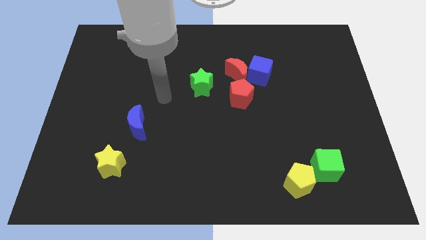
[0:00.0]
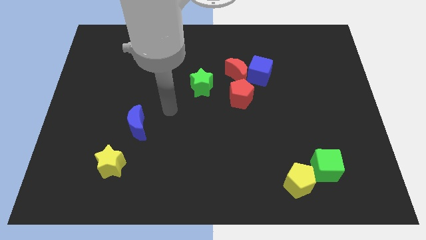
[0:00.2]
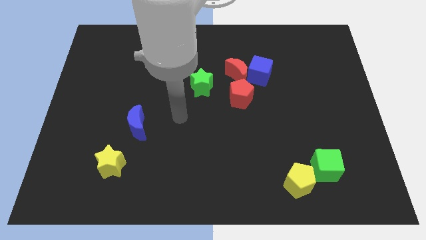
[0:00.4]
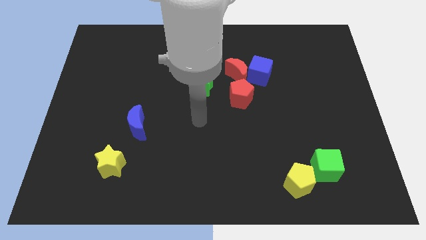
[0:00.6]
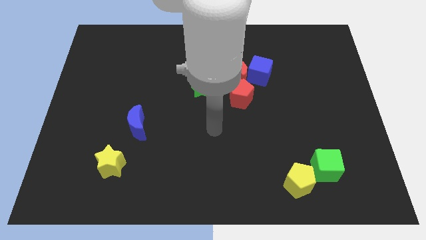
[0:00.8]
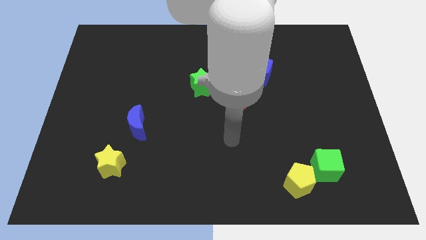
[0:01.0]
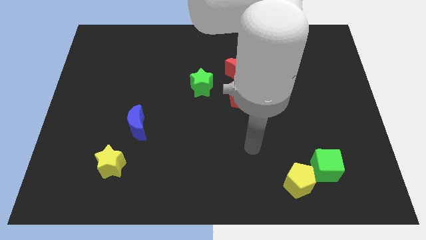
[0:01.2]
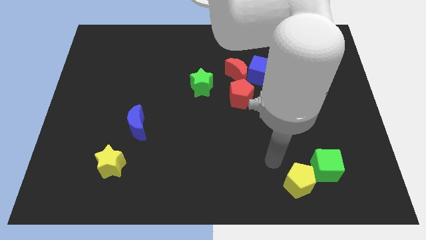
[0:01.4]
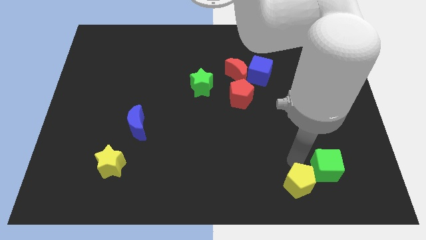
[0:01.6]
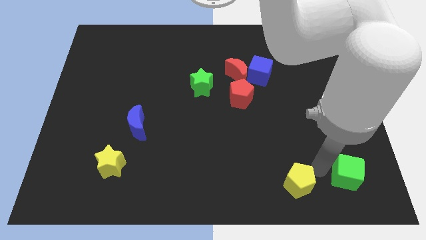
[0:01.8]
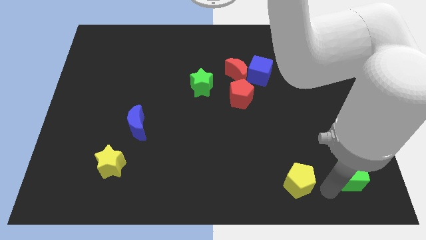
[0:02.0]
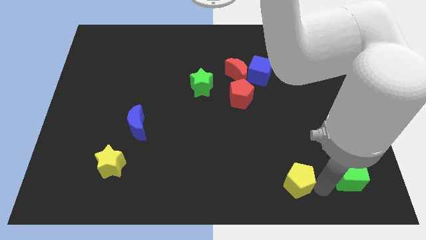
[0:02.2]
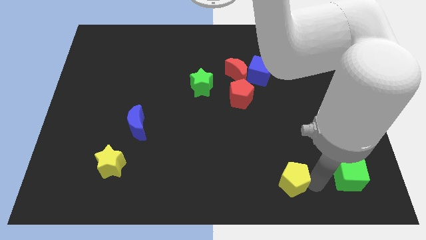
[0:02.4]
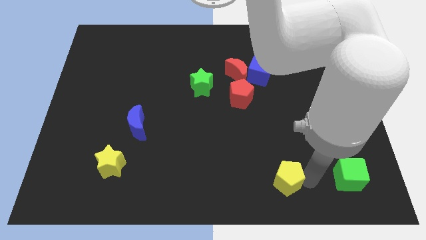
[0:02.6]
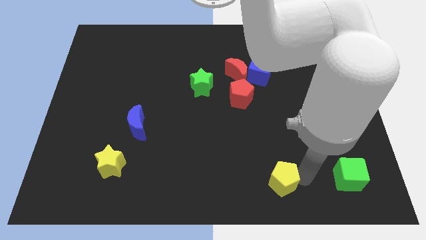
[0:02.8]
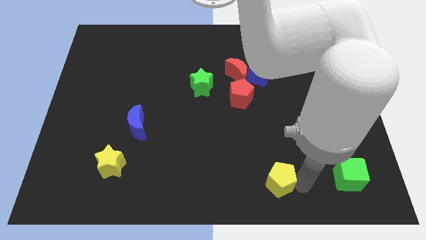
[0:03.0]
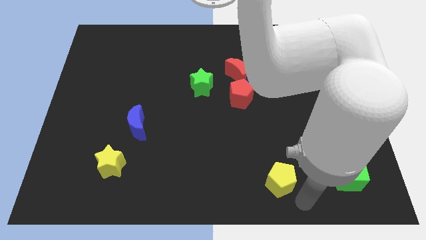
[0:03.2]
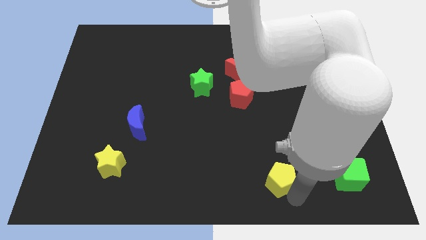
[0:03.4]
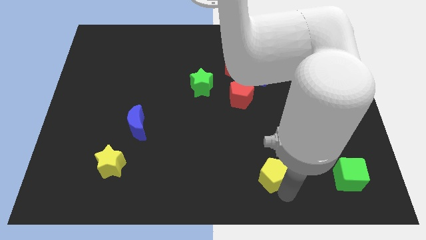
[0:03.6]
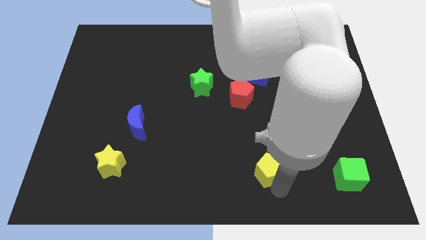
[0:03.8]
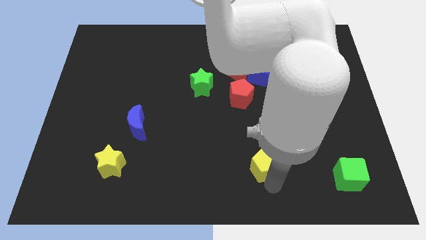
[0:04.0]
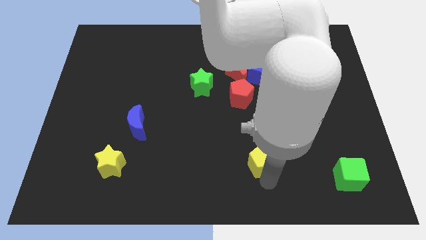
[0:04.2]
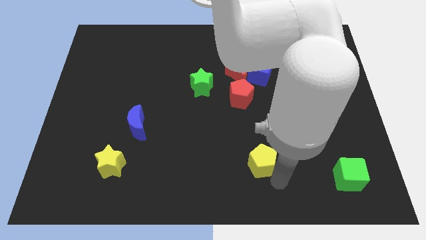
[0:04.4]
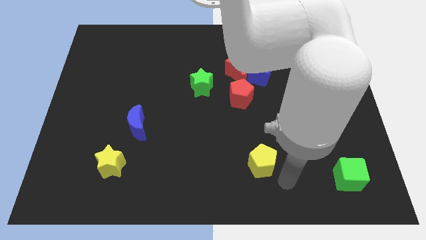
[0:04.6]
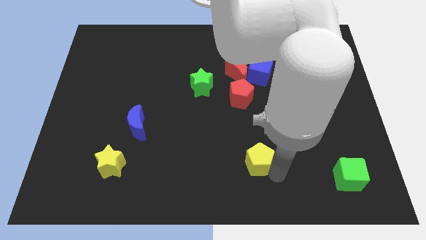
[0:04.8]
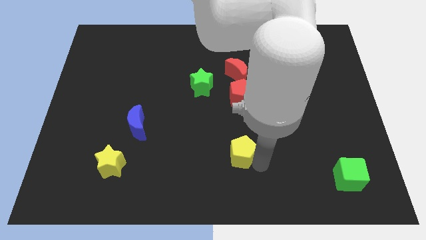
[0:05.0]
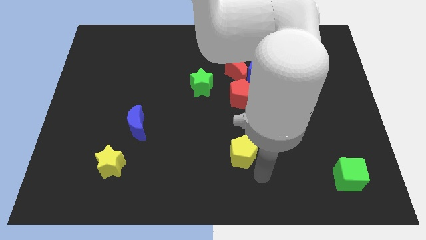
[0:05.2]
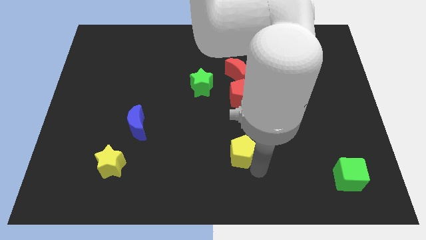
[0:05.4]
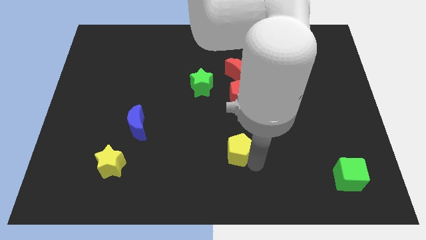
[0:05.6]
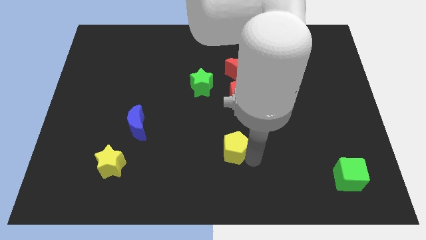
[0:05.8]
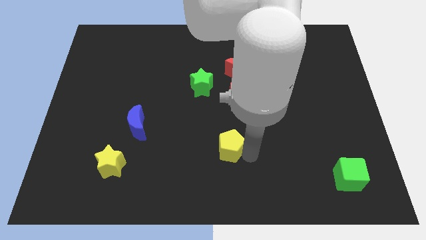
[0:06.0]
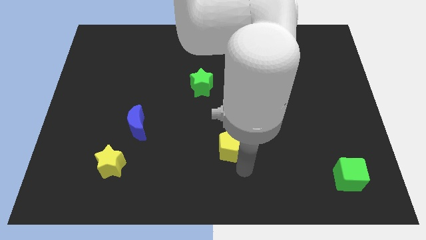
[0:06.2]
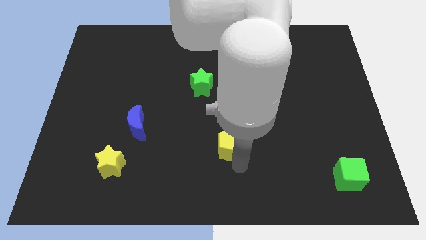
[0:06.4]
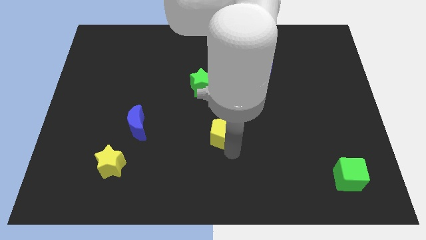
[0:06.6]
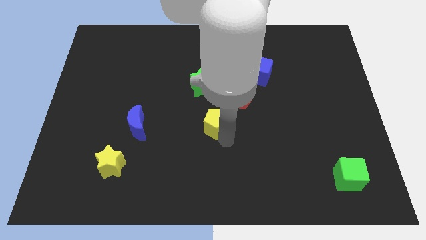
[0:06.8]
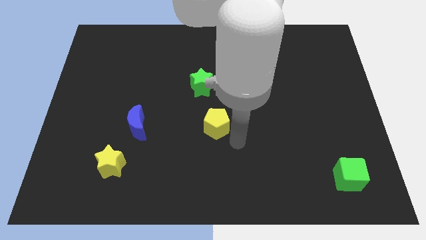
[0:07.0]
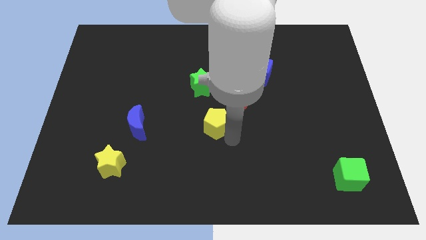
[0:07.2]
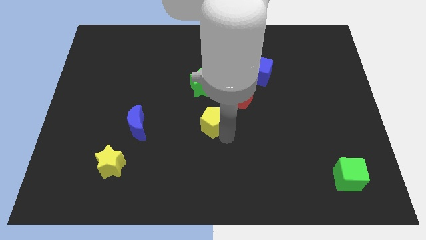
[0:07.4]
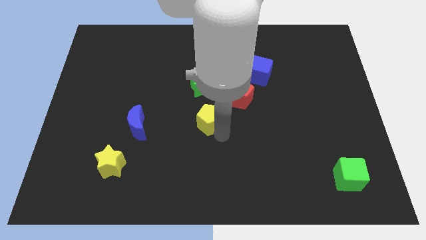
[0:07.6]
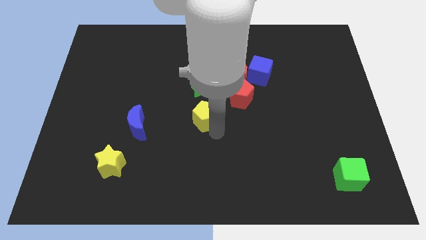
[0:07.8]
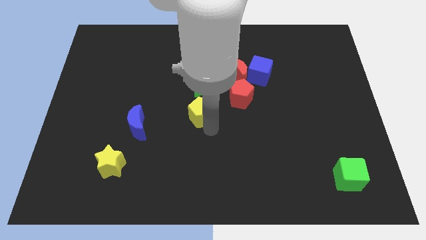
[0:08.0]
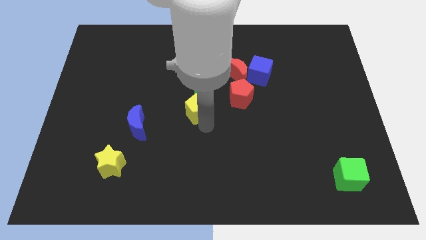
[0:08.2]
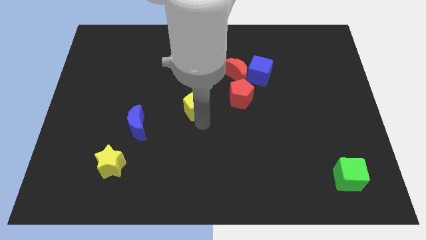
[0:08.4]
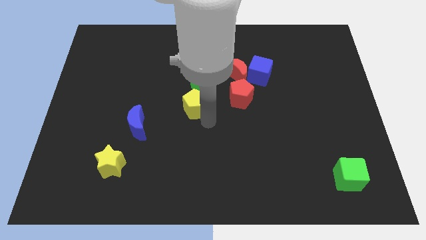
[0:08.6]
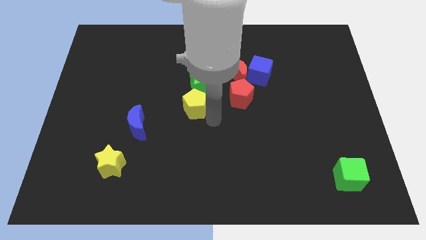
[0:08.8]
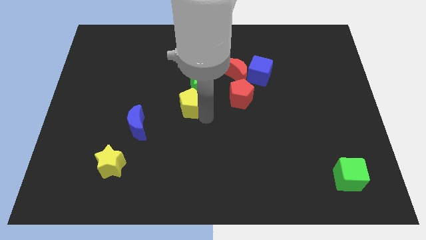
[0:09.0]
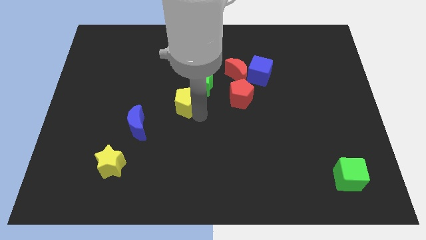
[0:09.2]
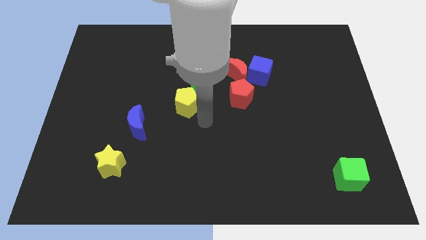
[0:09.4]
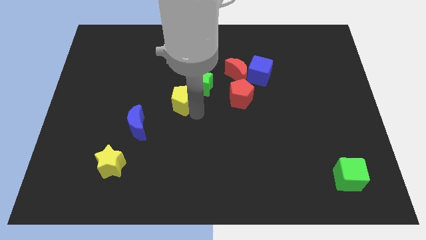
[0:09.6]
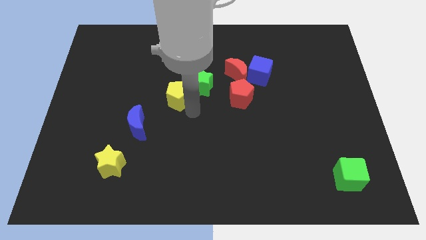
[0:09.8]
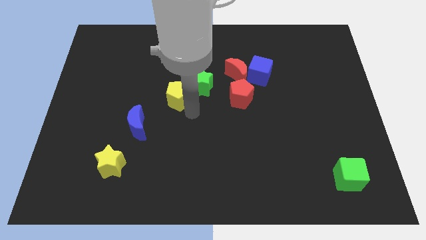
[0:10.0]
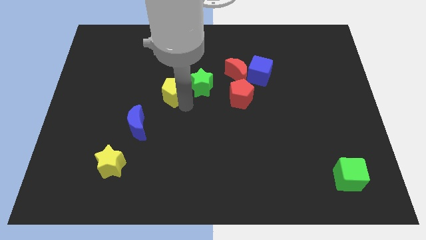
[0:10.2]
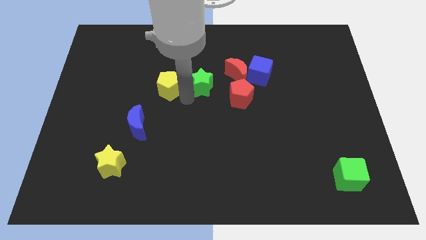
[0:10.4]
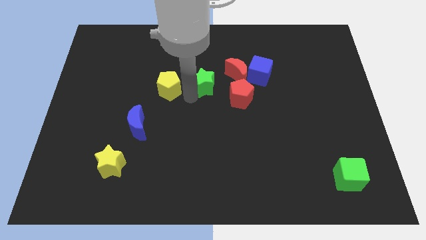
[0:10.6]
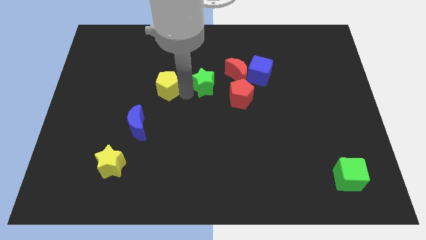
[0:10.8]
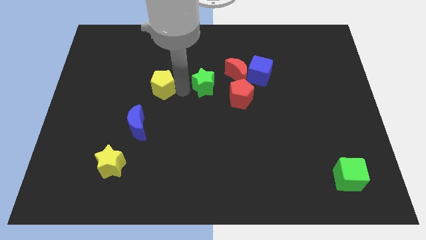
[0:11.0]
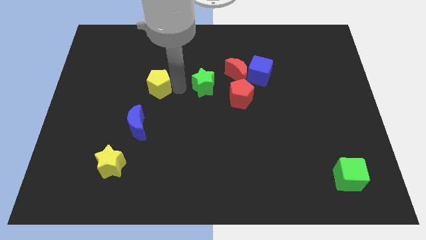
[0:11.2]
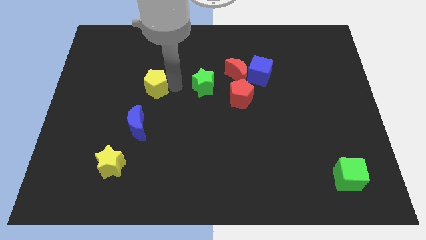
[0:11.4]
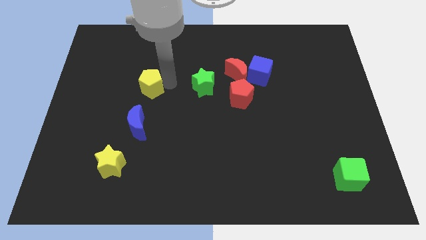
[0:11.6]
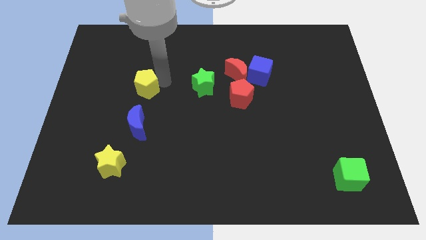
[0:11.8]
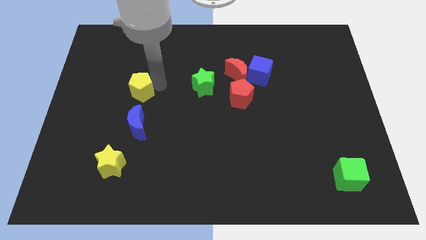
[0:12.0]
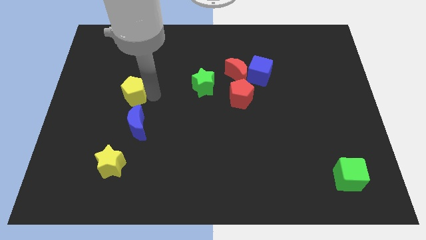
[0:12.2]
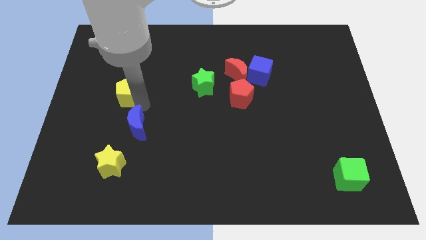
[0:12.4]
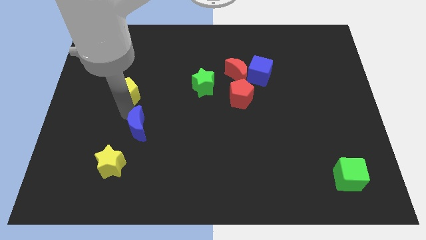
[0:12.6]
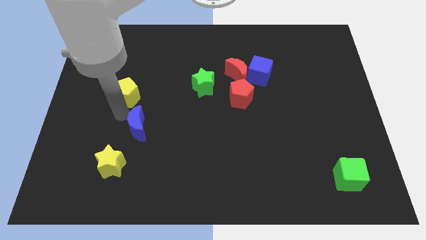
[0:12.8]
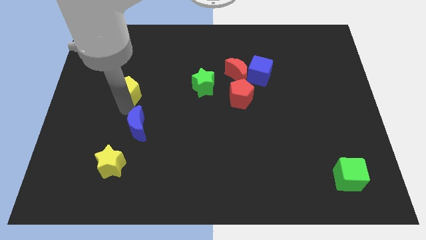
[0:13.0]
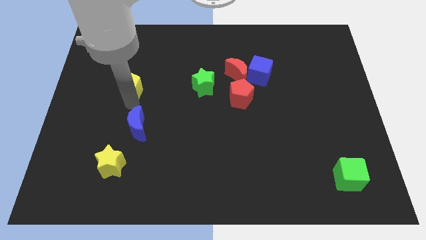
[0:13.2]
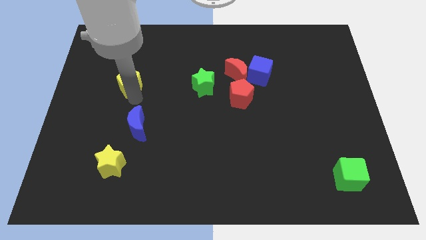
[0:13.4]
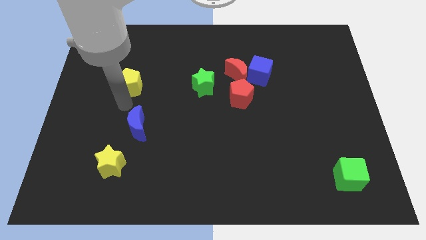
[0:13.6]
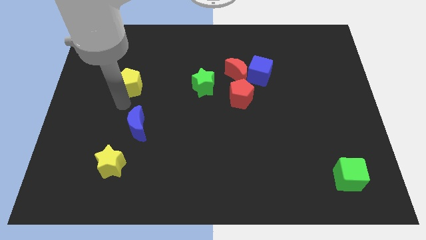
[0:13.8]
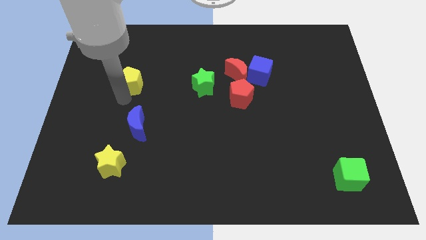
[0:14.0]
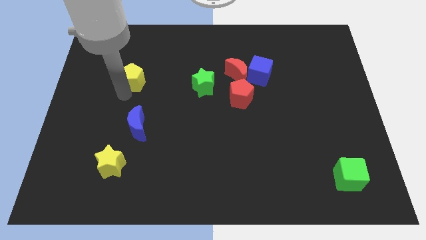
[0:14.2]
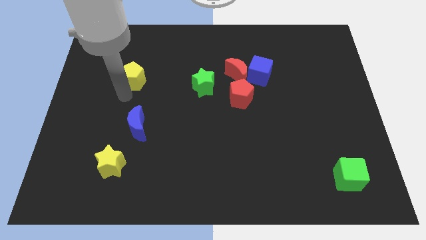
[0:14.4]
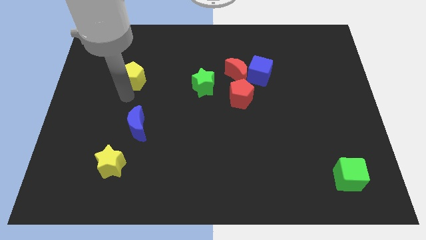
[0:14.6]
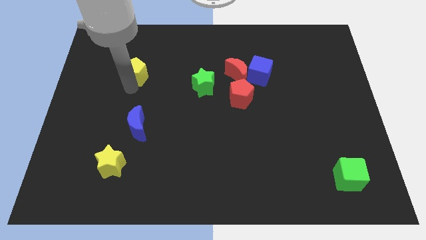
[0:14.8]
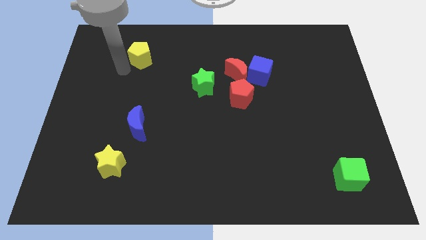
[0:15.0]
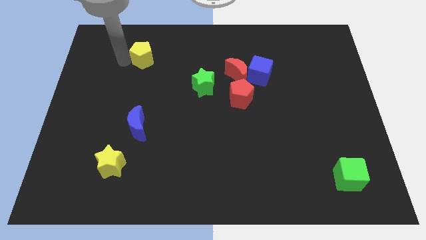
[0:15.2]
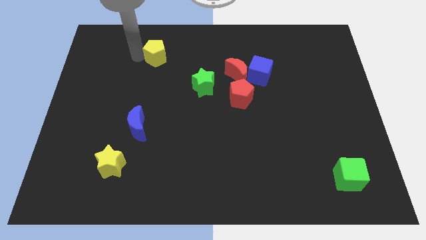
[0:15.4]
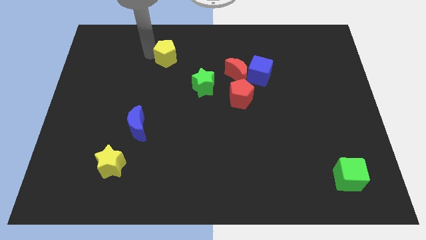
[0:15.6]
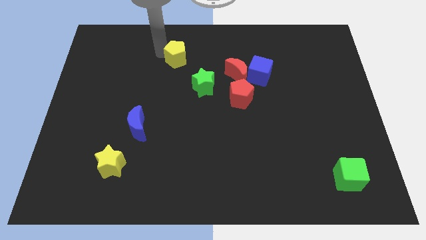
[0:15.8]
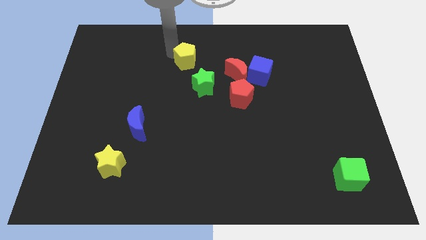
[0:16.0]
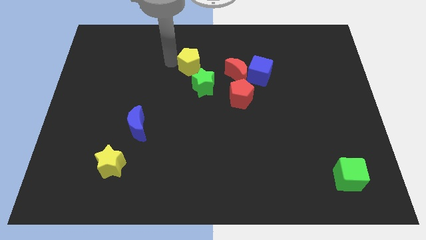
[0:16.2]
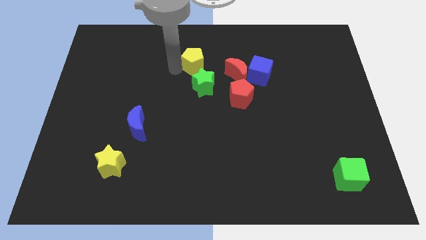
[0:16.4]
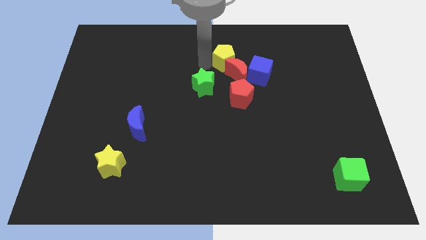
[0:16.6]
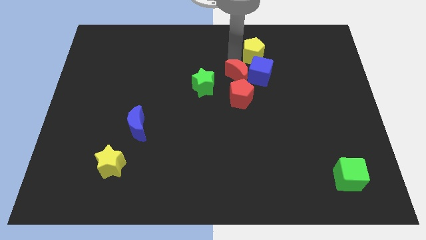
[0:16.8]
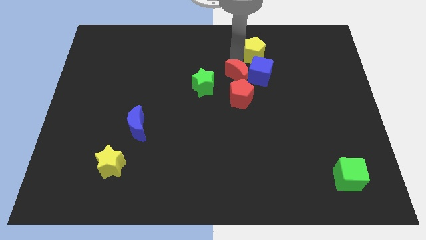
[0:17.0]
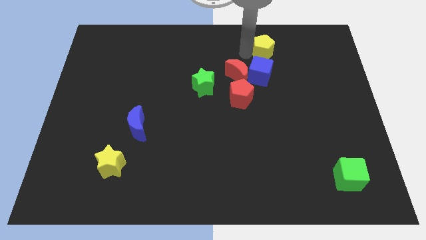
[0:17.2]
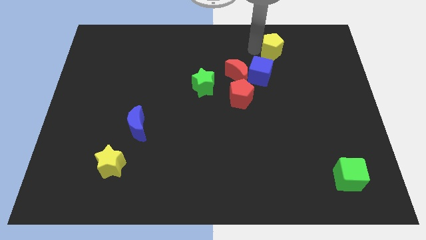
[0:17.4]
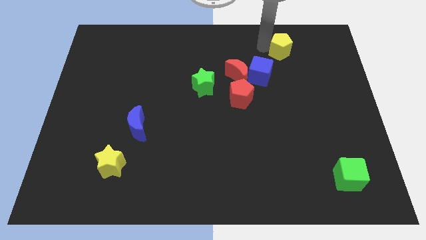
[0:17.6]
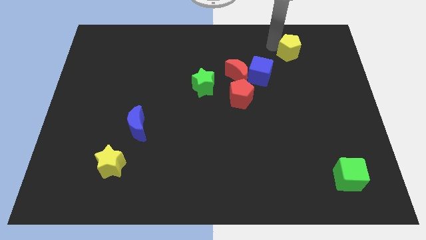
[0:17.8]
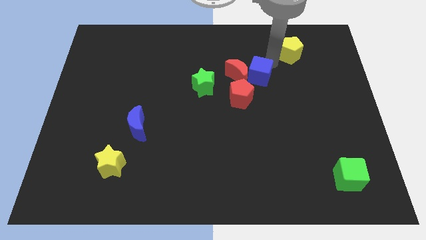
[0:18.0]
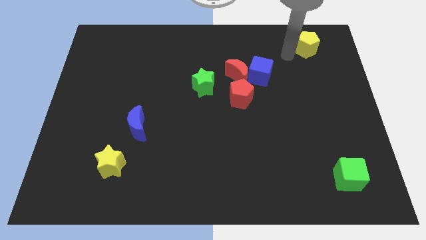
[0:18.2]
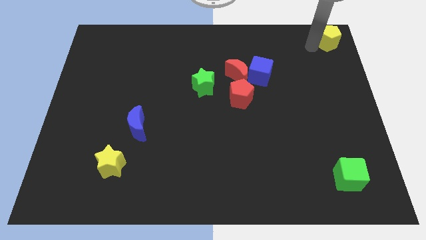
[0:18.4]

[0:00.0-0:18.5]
put the yellow pentagon to the top right corner
